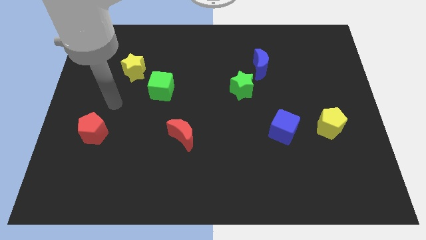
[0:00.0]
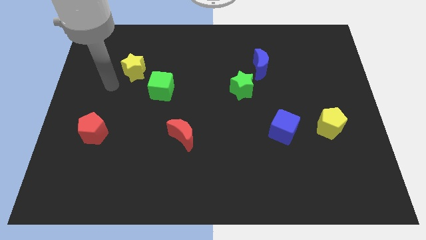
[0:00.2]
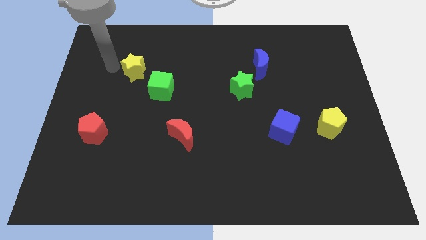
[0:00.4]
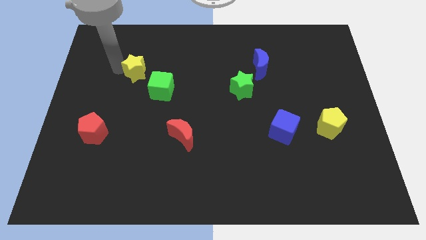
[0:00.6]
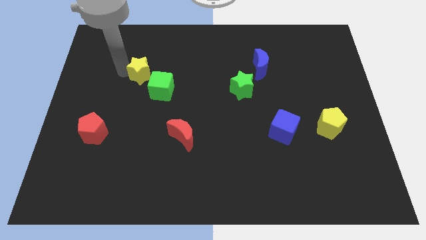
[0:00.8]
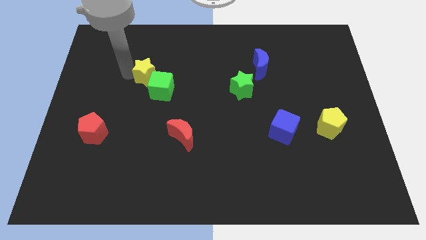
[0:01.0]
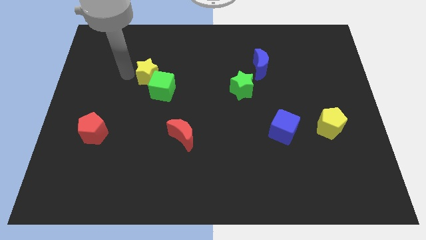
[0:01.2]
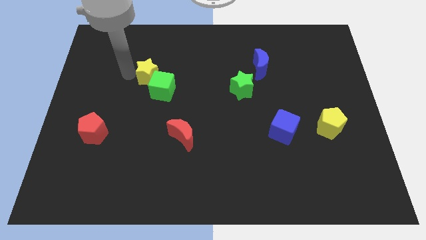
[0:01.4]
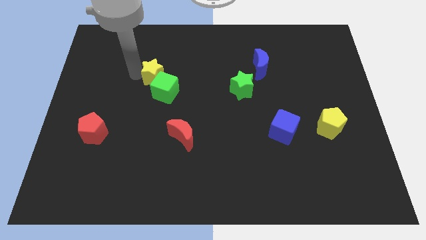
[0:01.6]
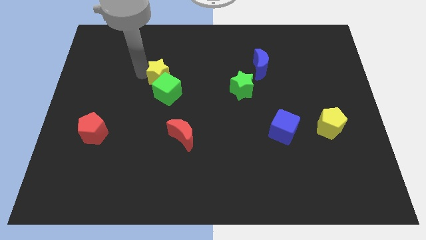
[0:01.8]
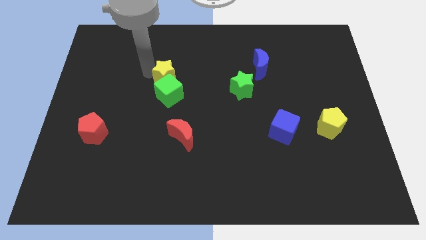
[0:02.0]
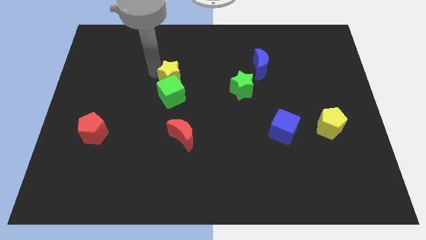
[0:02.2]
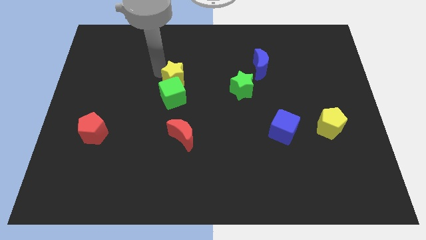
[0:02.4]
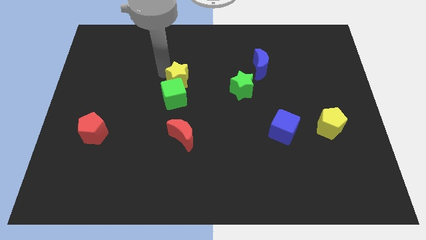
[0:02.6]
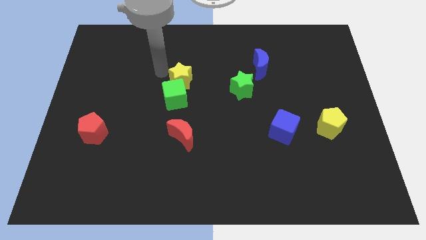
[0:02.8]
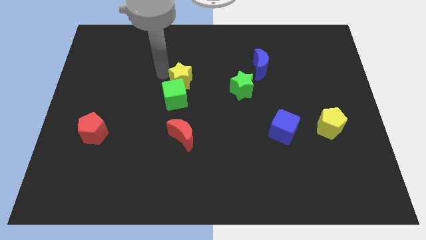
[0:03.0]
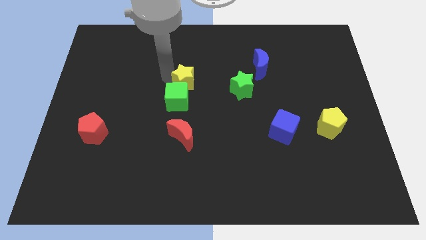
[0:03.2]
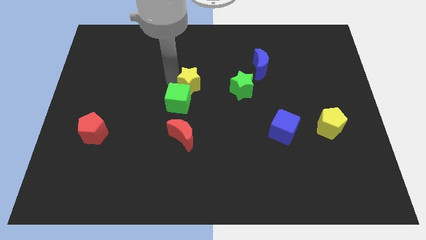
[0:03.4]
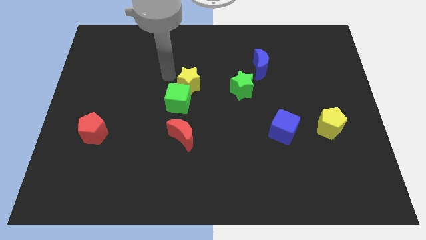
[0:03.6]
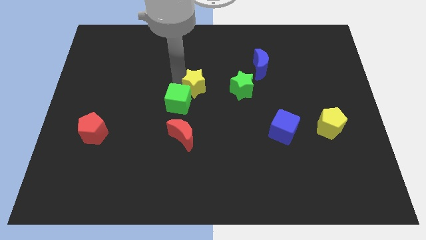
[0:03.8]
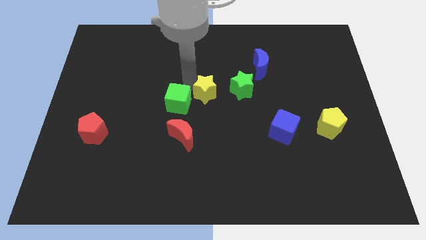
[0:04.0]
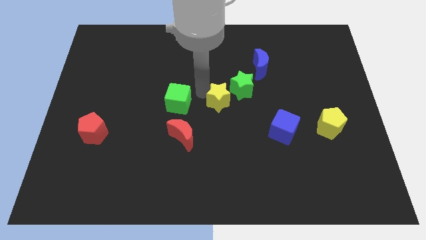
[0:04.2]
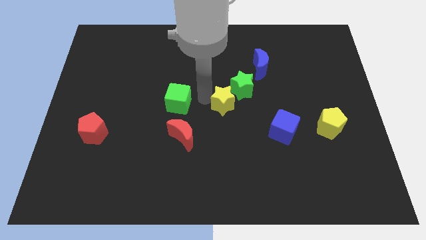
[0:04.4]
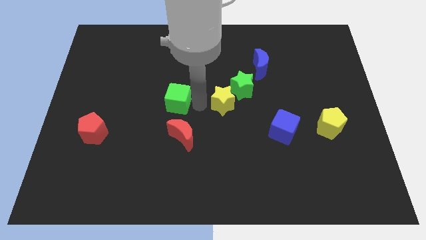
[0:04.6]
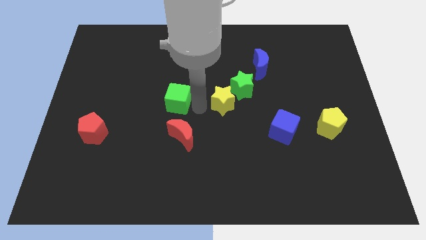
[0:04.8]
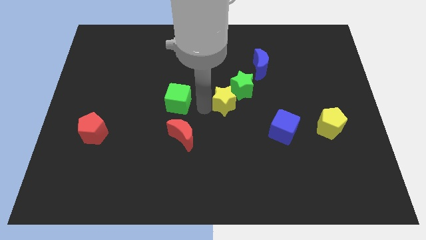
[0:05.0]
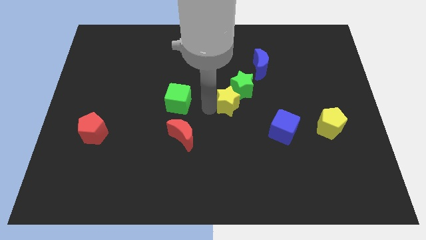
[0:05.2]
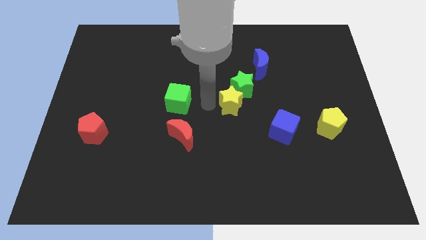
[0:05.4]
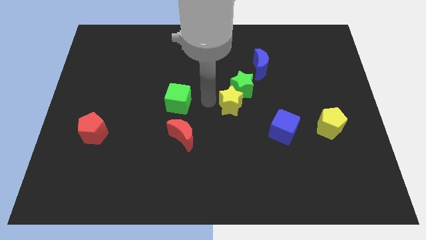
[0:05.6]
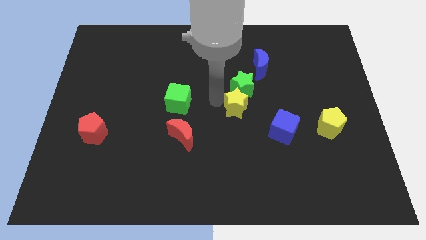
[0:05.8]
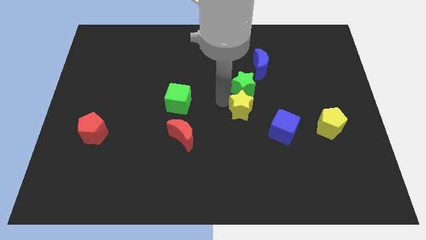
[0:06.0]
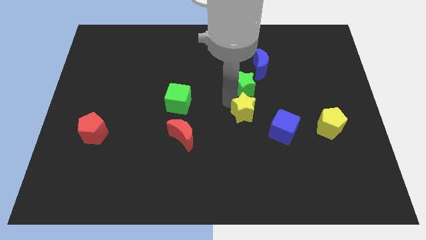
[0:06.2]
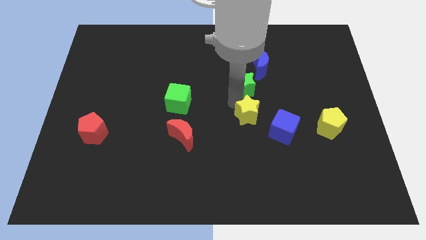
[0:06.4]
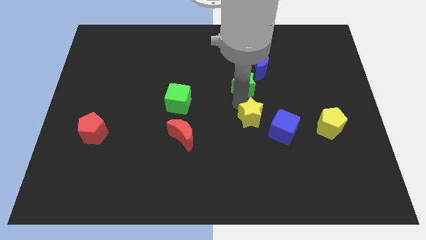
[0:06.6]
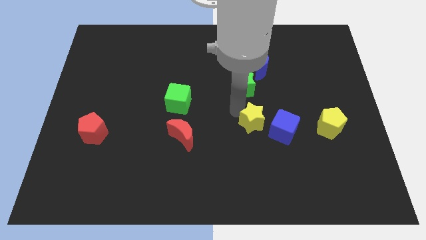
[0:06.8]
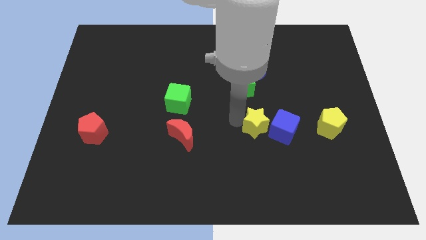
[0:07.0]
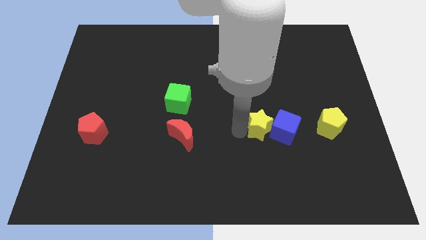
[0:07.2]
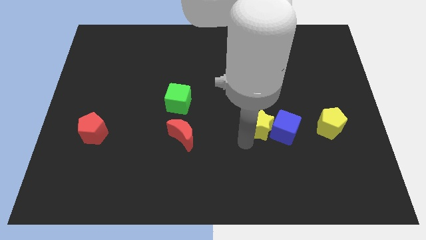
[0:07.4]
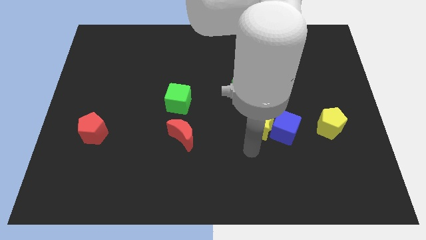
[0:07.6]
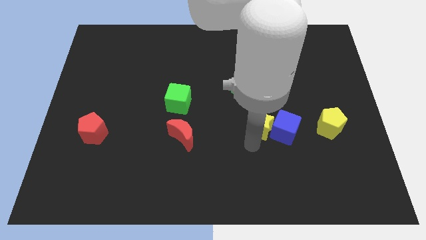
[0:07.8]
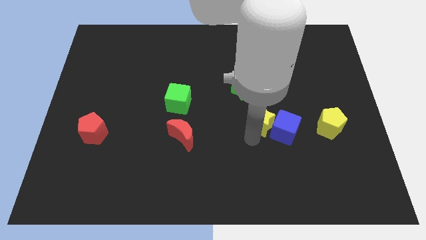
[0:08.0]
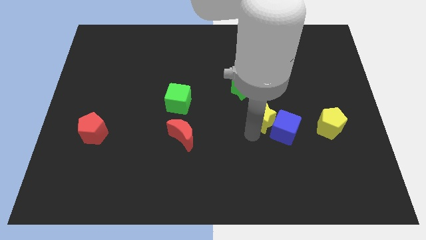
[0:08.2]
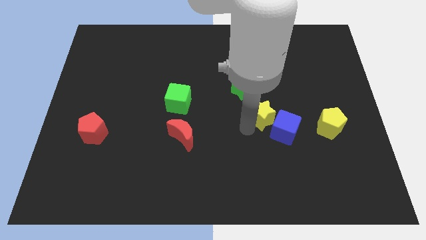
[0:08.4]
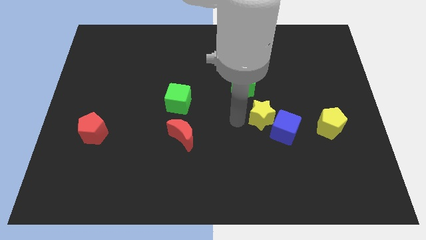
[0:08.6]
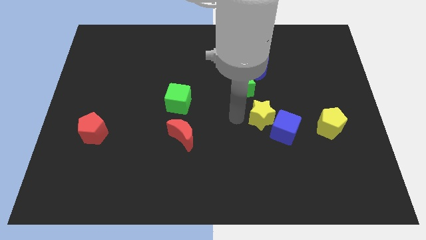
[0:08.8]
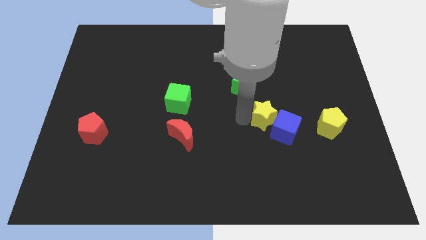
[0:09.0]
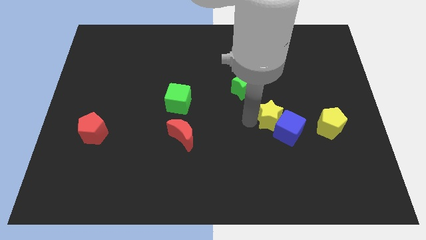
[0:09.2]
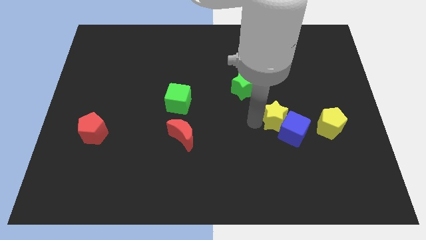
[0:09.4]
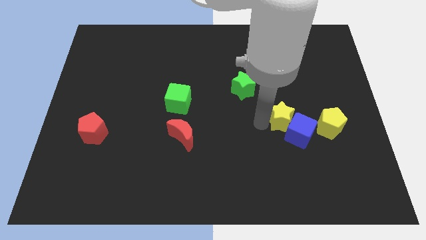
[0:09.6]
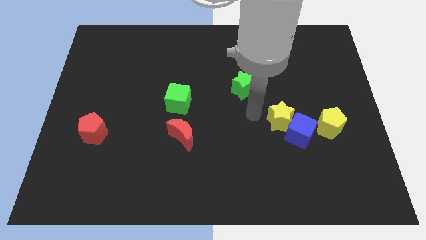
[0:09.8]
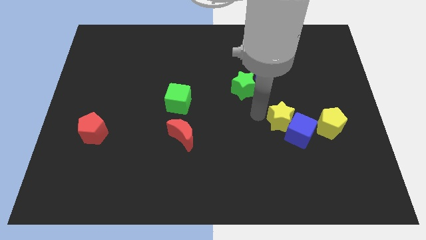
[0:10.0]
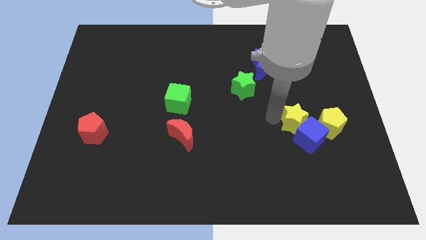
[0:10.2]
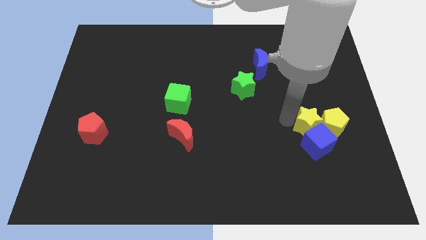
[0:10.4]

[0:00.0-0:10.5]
push the yellow star close to the yellow pentagon

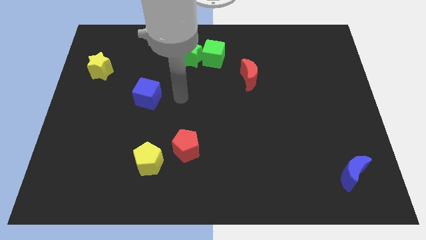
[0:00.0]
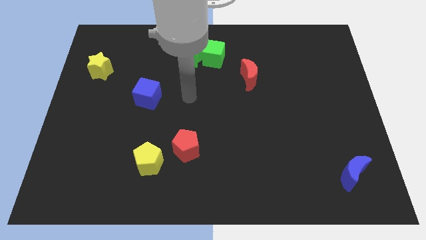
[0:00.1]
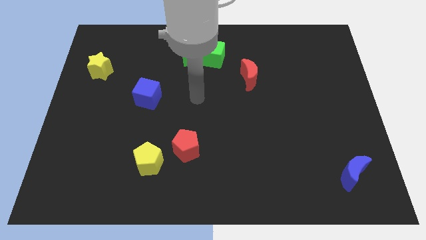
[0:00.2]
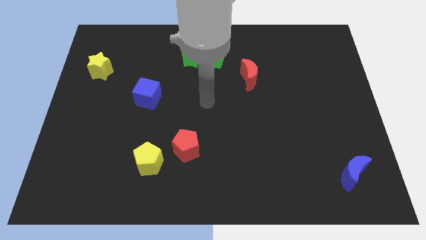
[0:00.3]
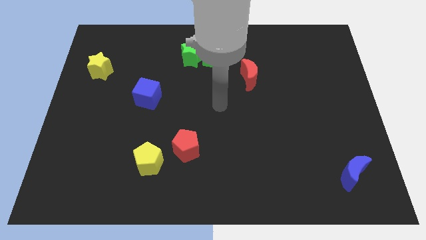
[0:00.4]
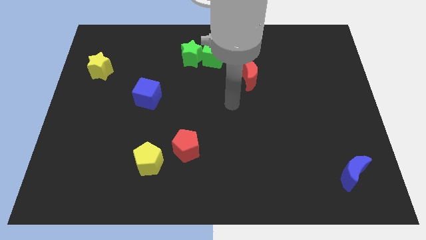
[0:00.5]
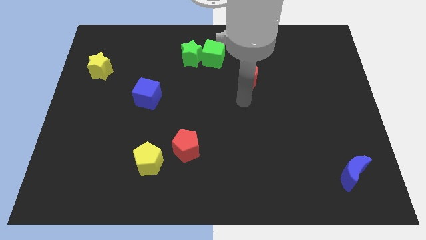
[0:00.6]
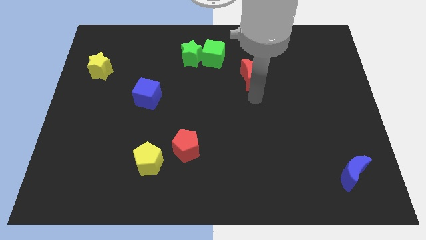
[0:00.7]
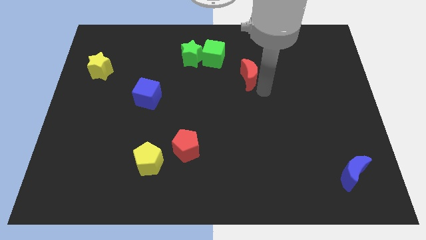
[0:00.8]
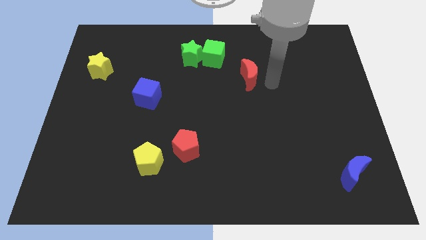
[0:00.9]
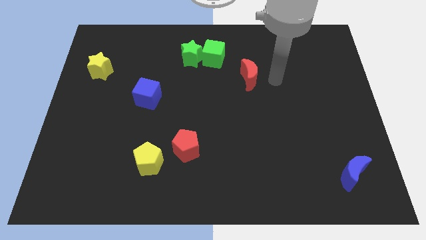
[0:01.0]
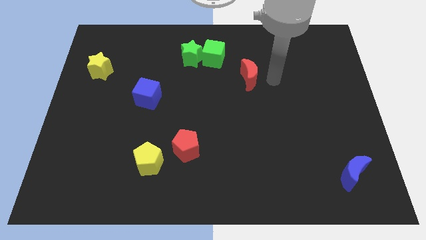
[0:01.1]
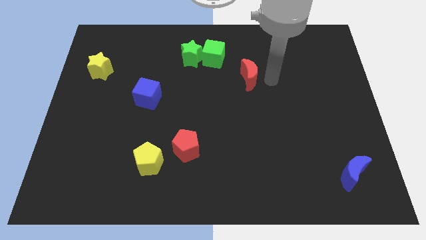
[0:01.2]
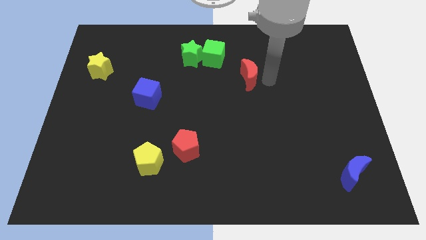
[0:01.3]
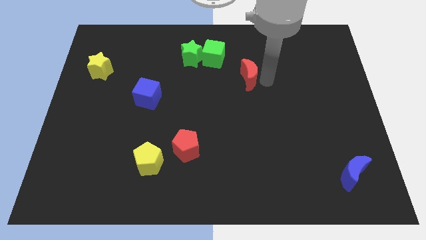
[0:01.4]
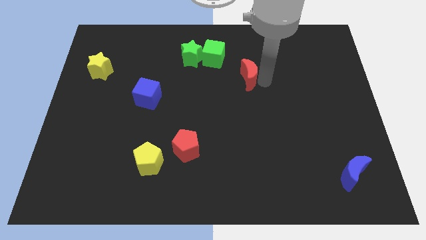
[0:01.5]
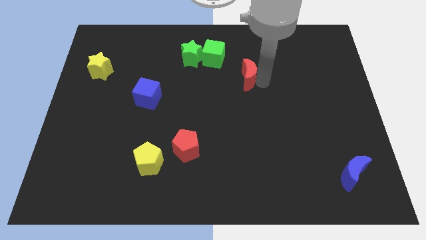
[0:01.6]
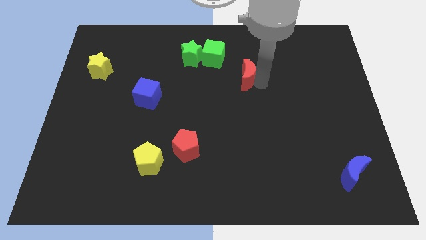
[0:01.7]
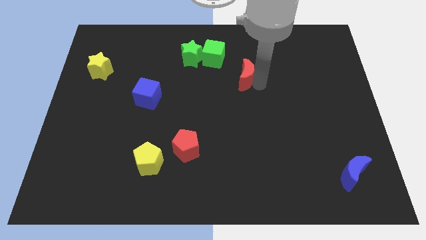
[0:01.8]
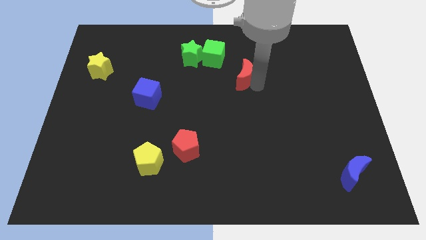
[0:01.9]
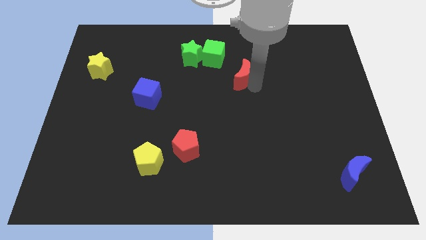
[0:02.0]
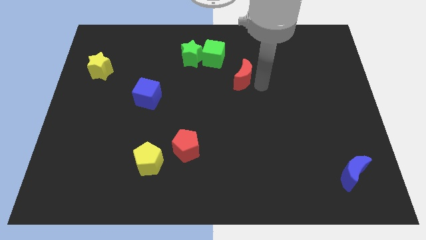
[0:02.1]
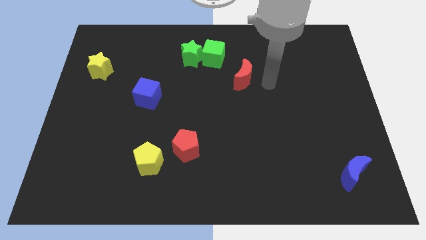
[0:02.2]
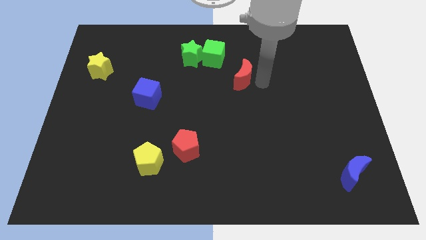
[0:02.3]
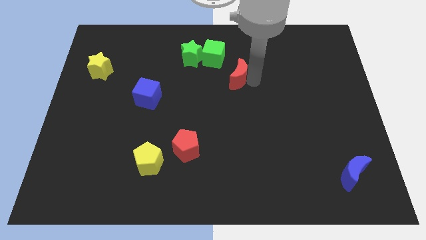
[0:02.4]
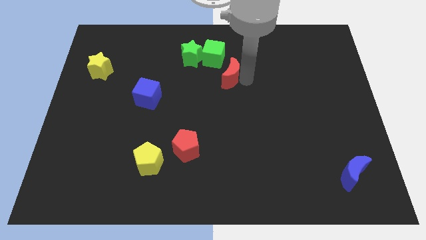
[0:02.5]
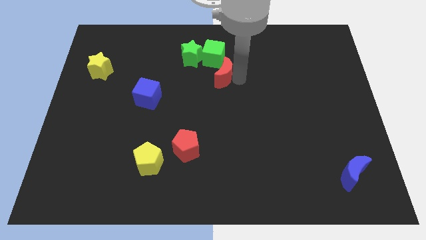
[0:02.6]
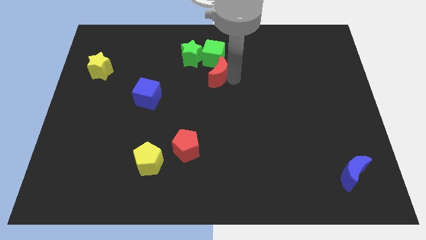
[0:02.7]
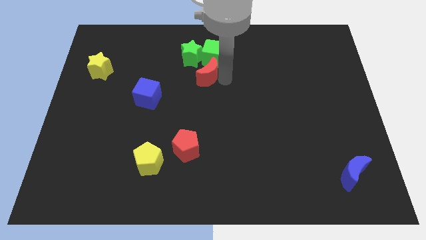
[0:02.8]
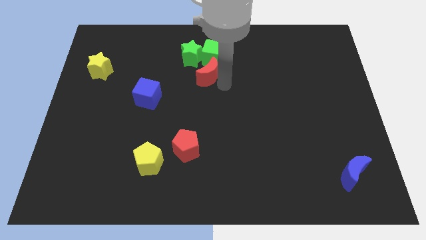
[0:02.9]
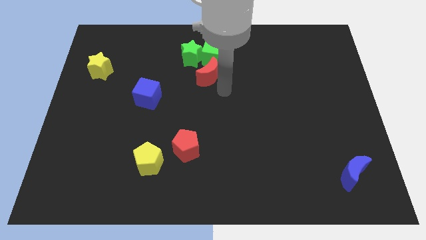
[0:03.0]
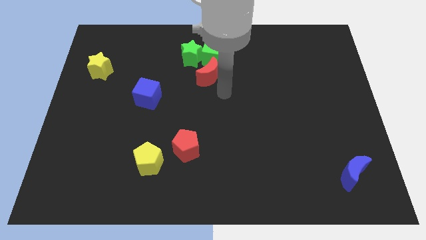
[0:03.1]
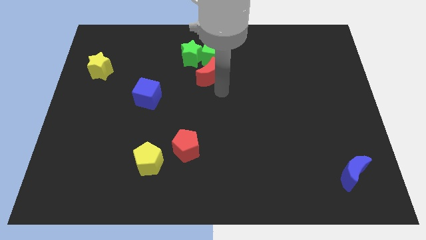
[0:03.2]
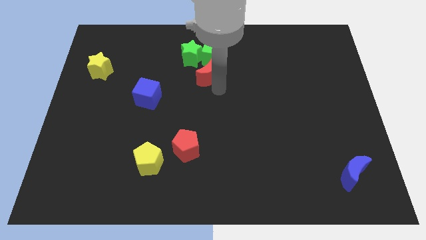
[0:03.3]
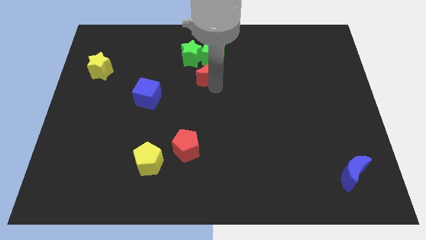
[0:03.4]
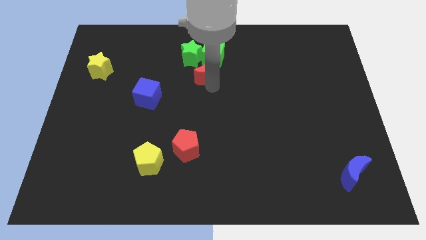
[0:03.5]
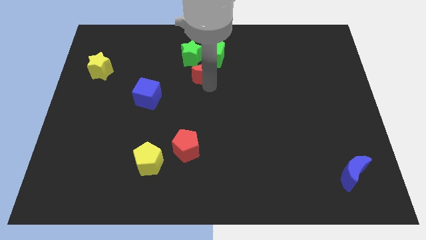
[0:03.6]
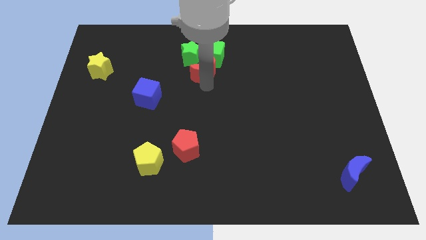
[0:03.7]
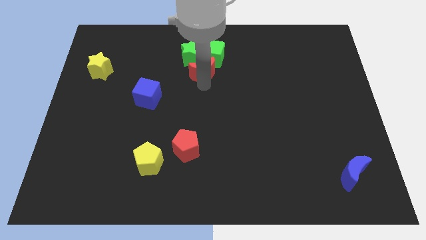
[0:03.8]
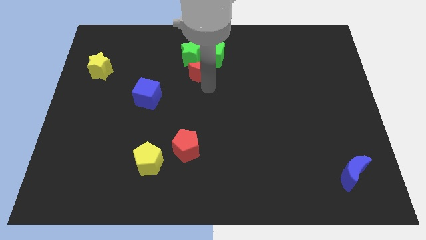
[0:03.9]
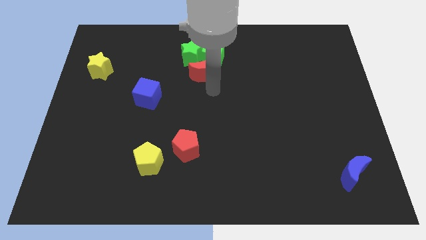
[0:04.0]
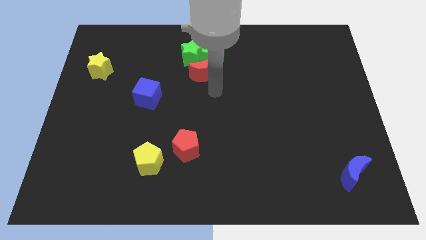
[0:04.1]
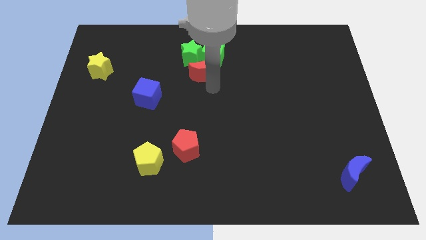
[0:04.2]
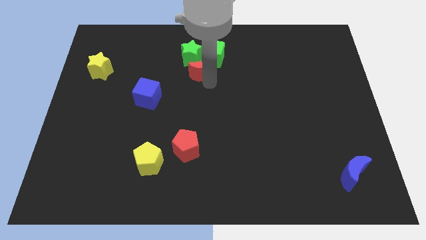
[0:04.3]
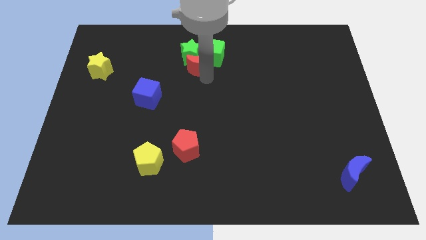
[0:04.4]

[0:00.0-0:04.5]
slide the red moon close to the green star
